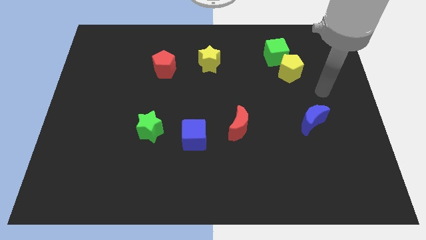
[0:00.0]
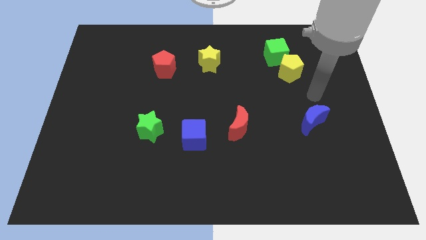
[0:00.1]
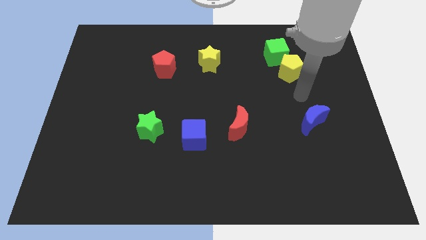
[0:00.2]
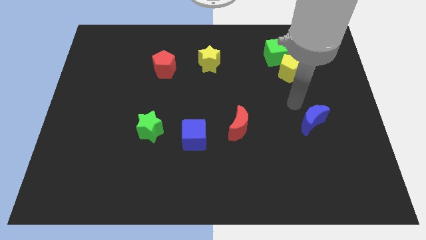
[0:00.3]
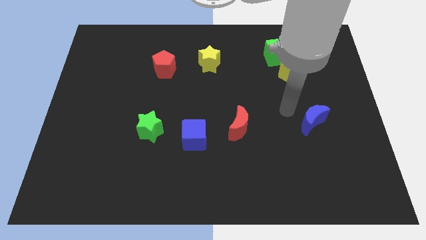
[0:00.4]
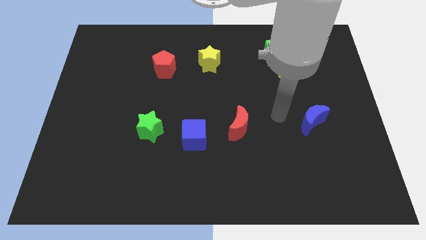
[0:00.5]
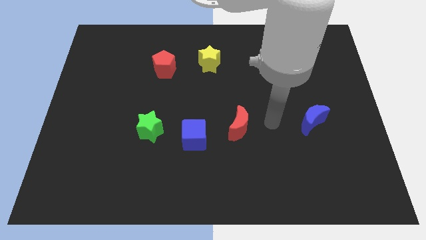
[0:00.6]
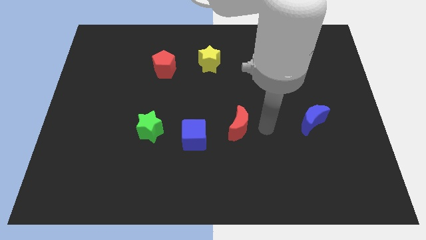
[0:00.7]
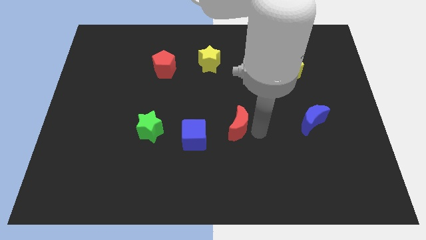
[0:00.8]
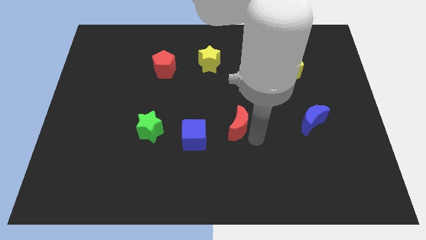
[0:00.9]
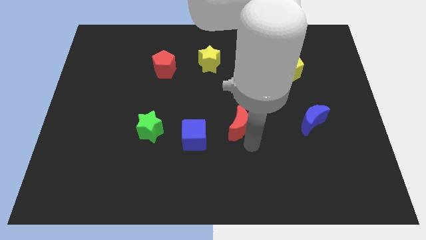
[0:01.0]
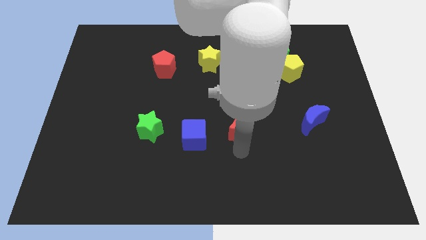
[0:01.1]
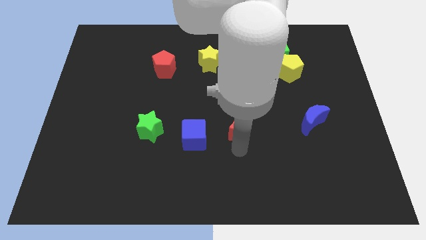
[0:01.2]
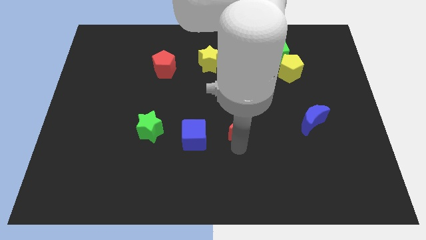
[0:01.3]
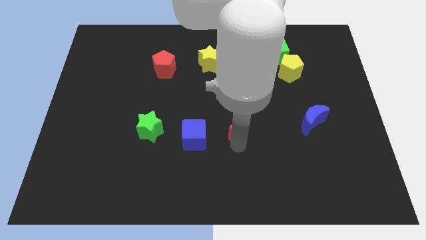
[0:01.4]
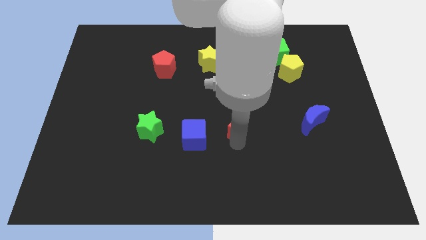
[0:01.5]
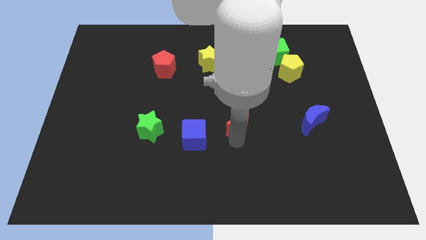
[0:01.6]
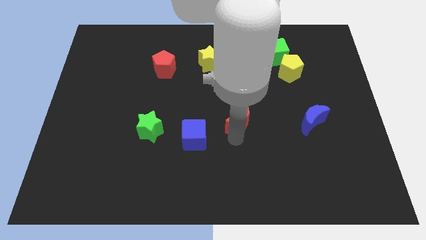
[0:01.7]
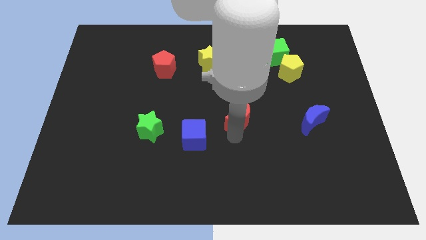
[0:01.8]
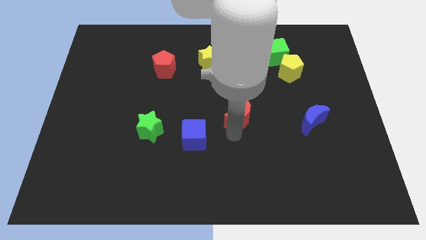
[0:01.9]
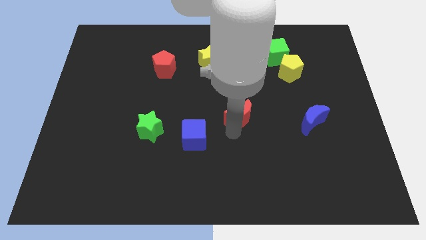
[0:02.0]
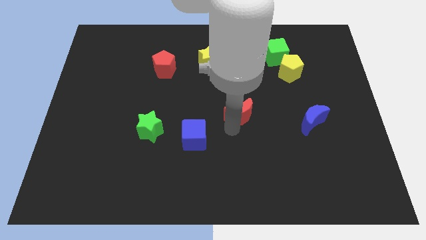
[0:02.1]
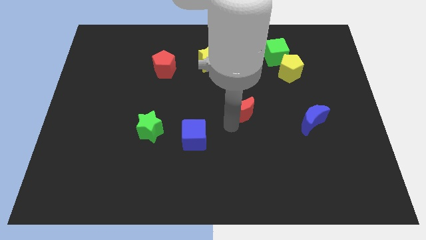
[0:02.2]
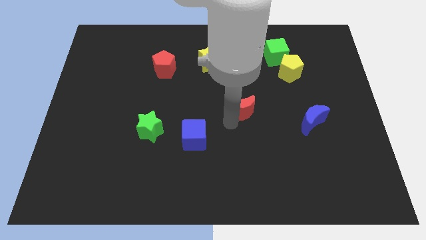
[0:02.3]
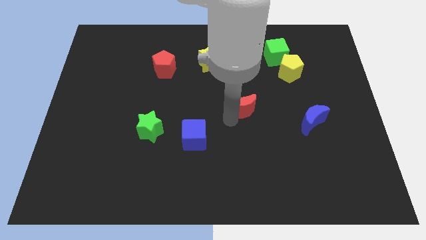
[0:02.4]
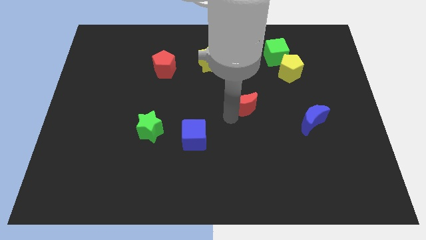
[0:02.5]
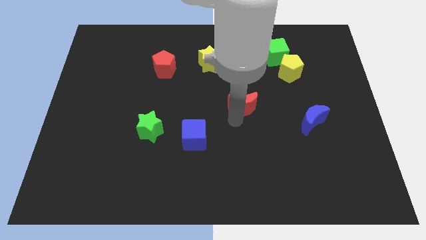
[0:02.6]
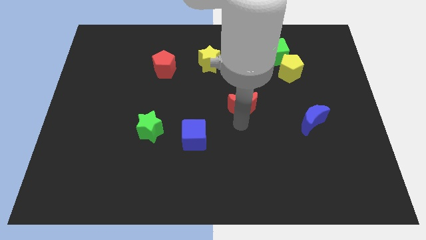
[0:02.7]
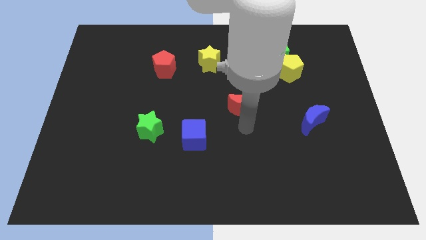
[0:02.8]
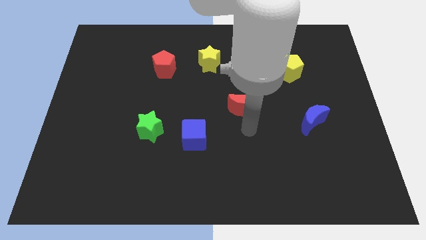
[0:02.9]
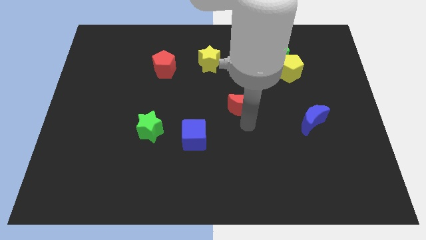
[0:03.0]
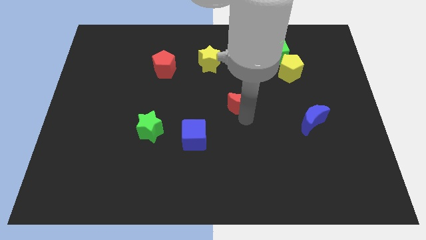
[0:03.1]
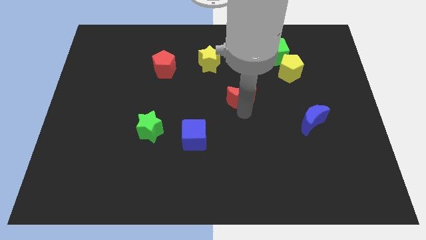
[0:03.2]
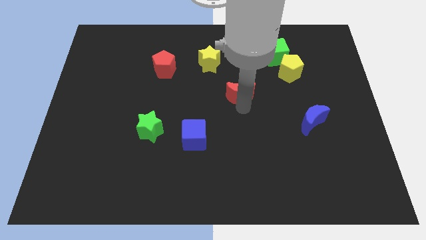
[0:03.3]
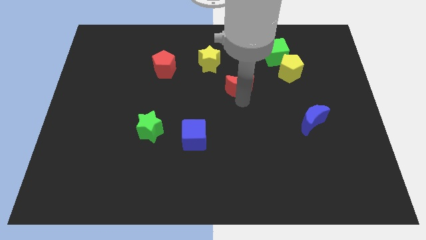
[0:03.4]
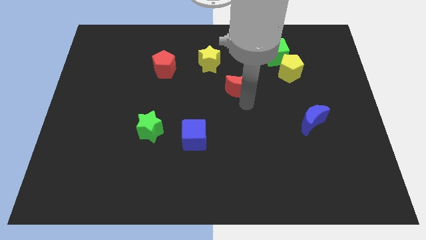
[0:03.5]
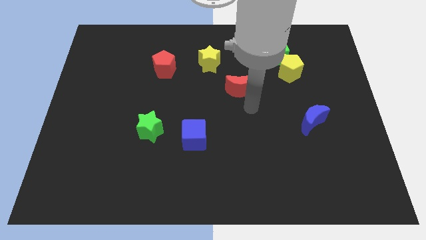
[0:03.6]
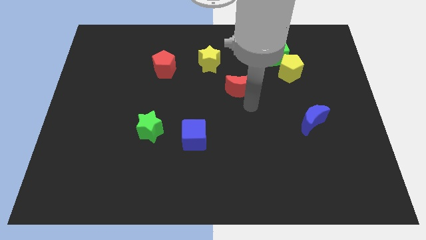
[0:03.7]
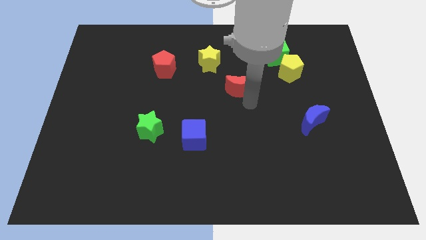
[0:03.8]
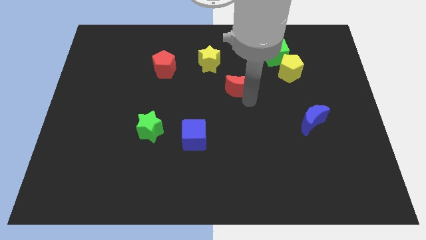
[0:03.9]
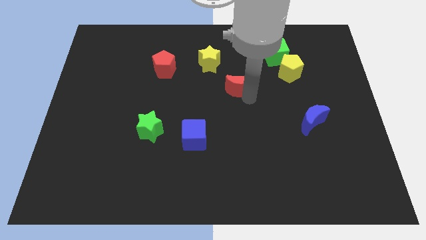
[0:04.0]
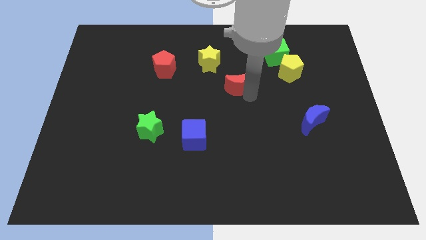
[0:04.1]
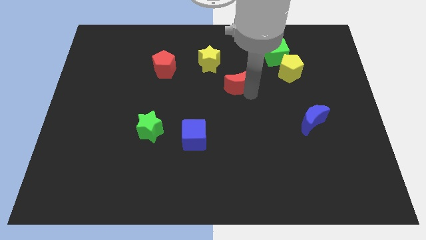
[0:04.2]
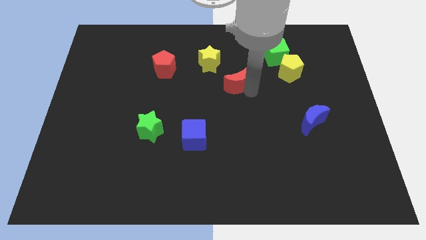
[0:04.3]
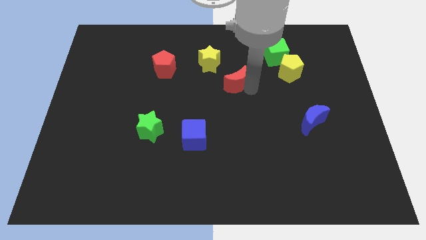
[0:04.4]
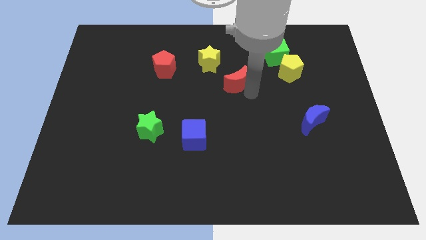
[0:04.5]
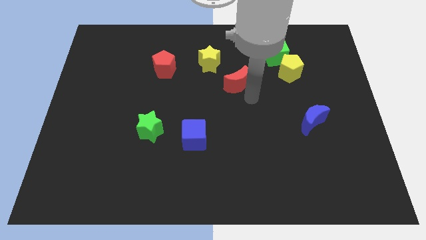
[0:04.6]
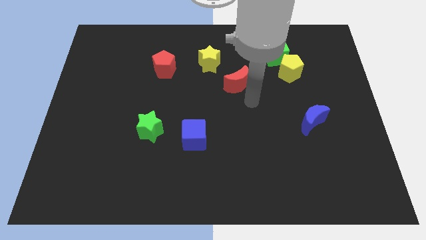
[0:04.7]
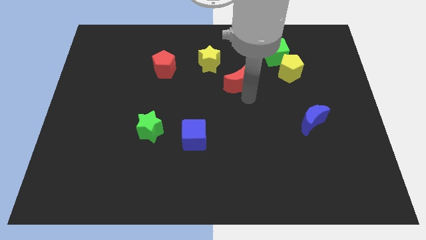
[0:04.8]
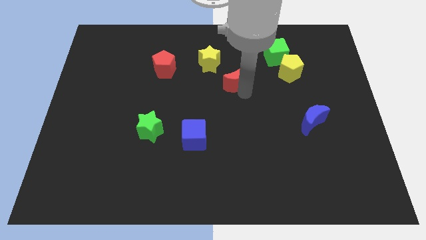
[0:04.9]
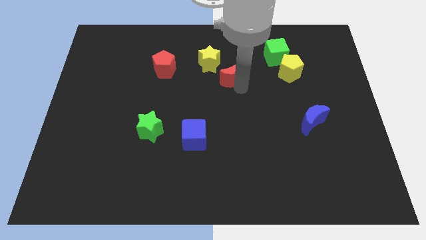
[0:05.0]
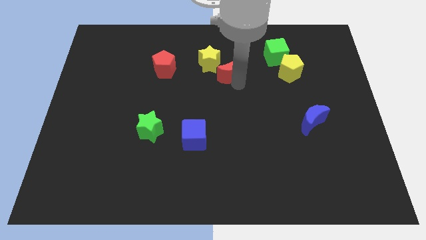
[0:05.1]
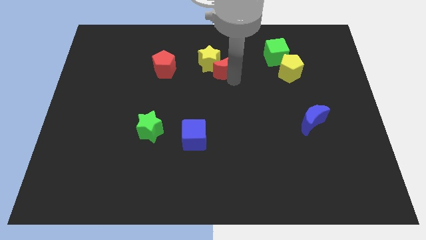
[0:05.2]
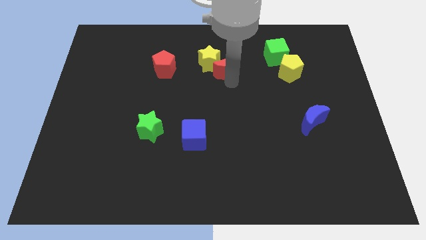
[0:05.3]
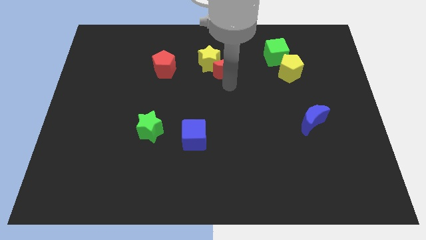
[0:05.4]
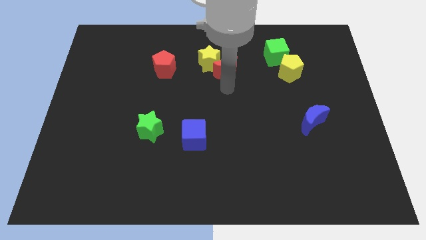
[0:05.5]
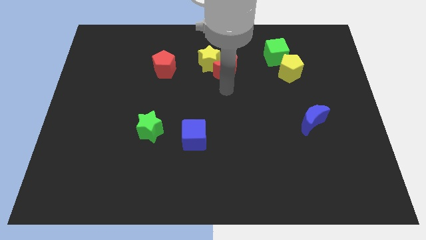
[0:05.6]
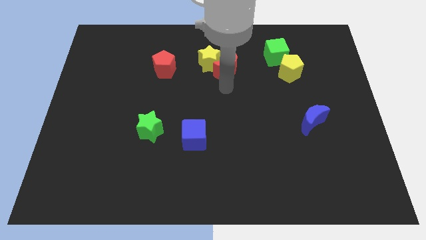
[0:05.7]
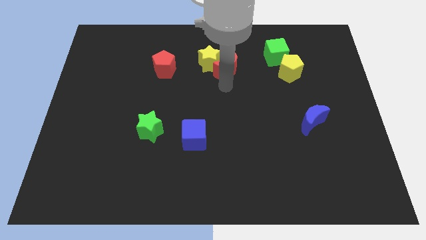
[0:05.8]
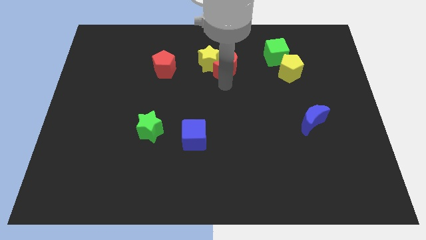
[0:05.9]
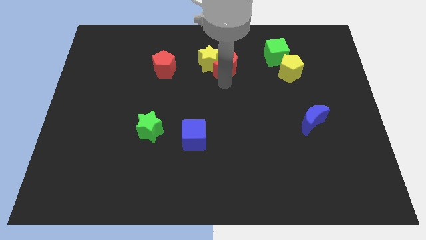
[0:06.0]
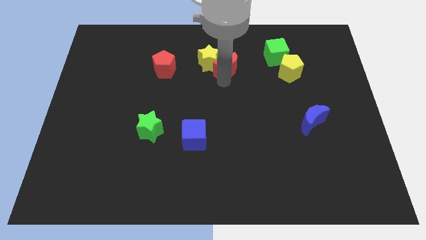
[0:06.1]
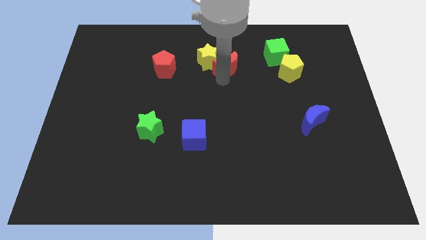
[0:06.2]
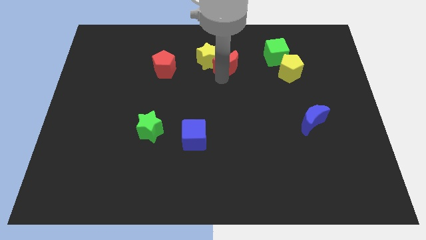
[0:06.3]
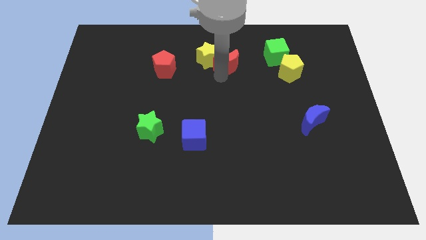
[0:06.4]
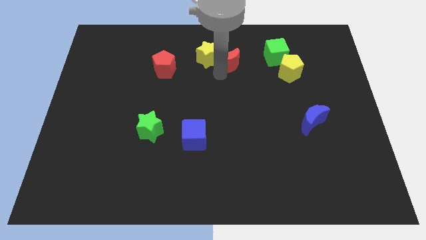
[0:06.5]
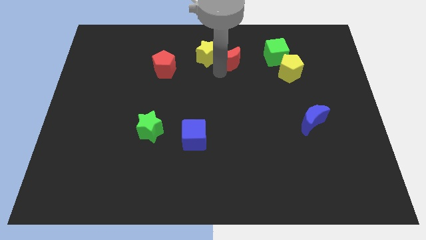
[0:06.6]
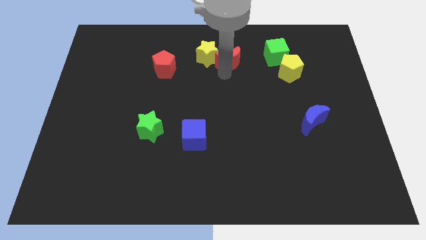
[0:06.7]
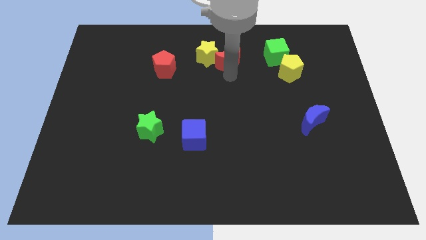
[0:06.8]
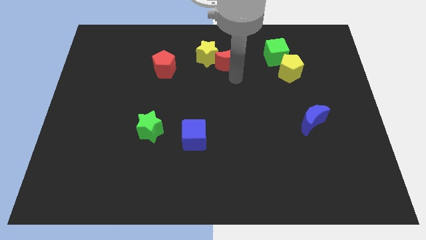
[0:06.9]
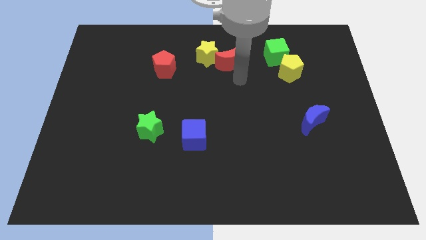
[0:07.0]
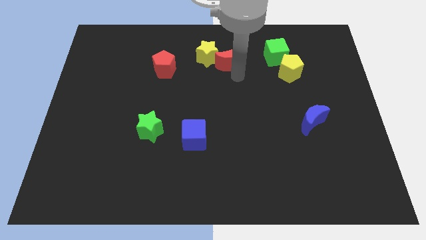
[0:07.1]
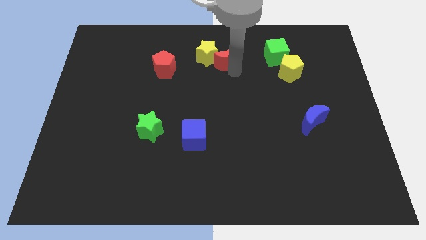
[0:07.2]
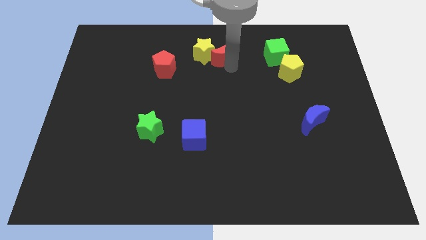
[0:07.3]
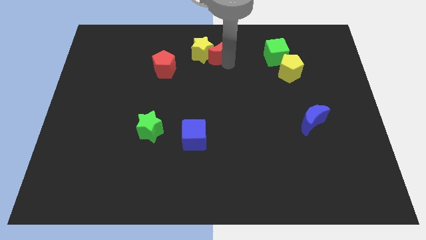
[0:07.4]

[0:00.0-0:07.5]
slide the red moon to the top

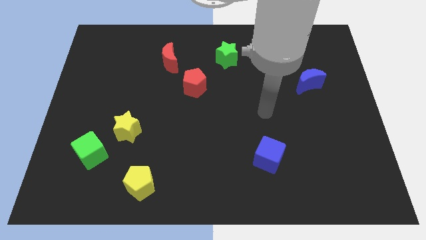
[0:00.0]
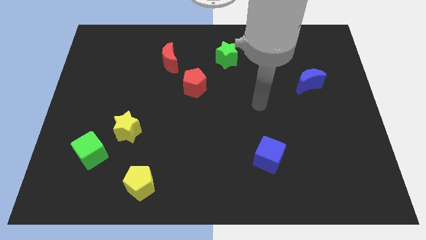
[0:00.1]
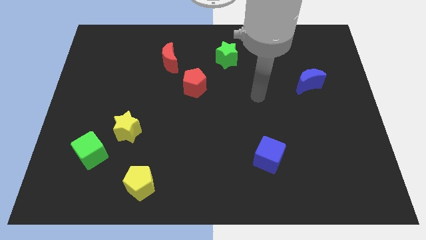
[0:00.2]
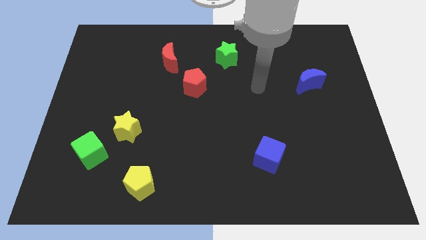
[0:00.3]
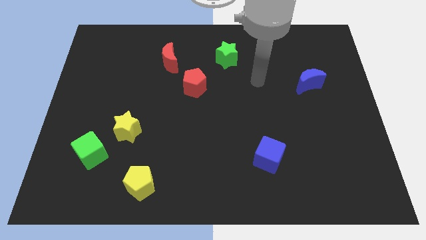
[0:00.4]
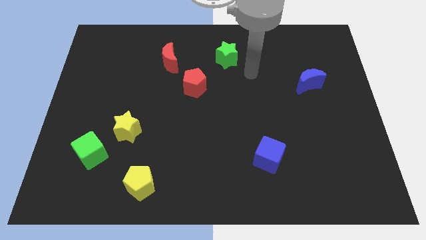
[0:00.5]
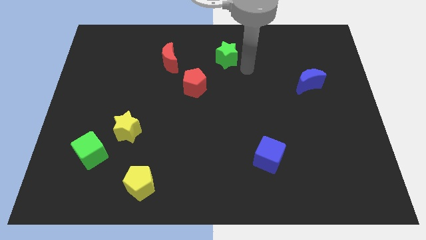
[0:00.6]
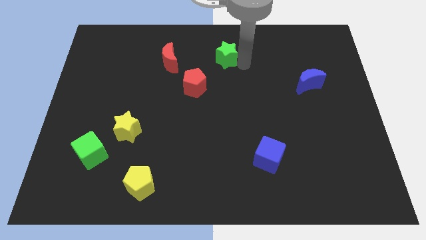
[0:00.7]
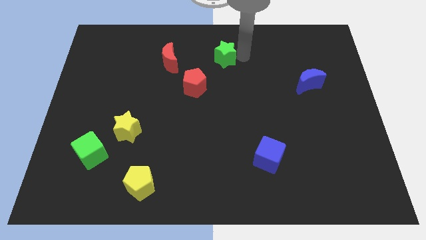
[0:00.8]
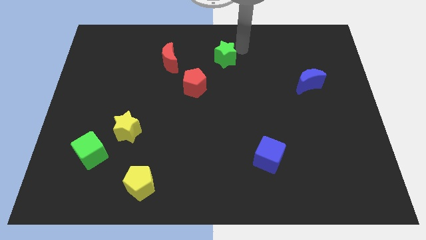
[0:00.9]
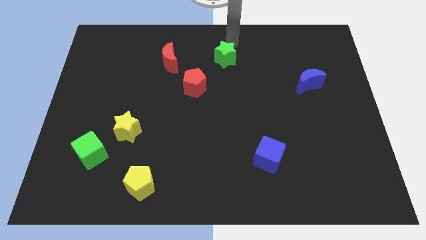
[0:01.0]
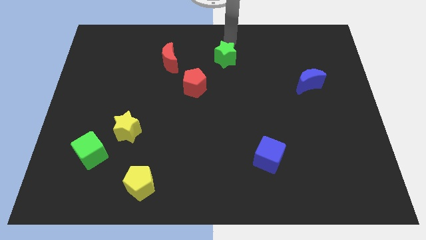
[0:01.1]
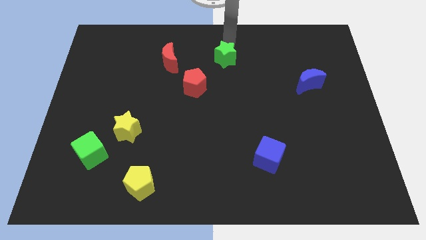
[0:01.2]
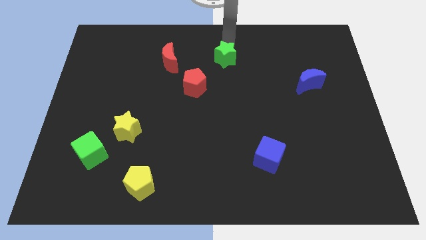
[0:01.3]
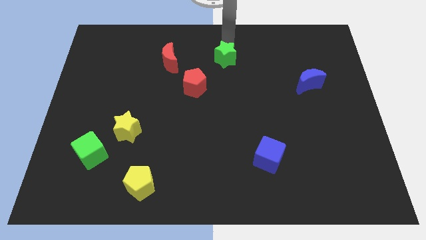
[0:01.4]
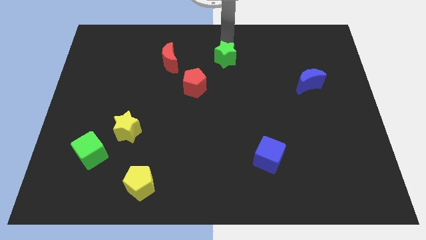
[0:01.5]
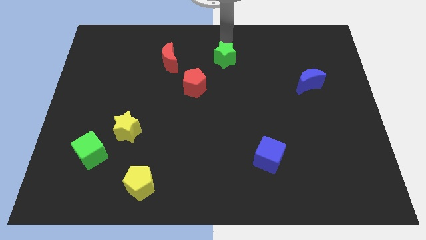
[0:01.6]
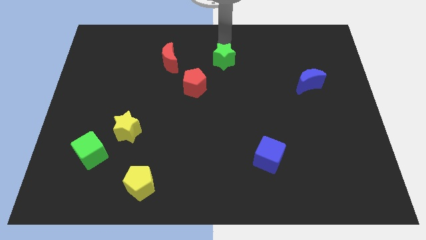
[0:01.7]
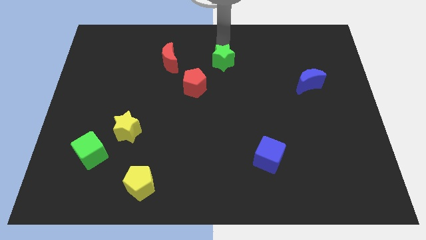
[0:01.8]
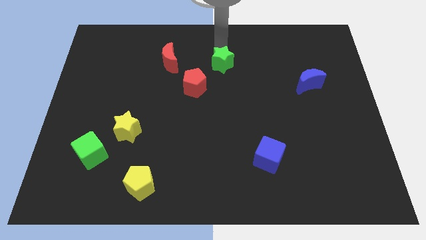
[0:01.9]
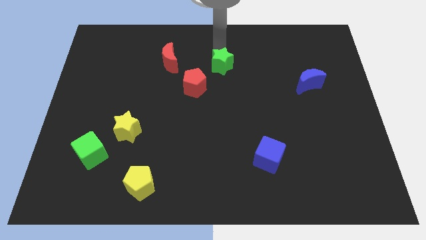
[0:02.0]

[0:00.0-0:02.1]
slide the green star to the middle of the board
